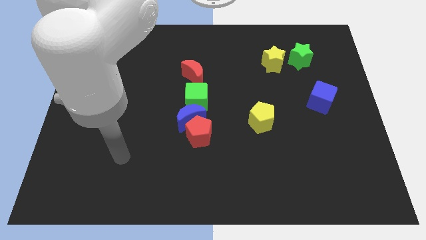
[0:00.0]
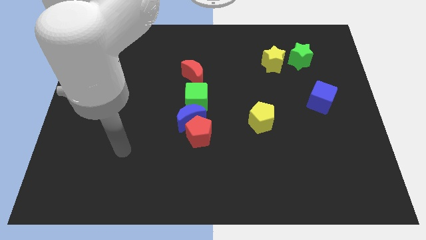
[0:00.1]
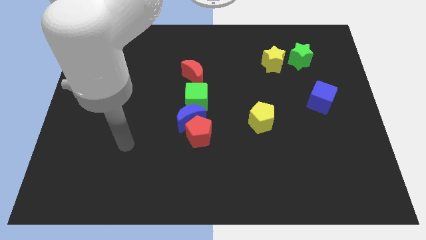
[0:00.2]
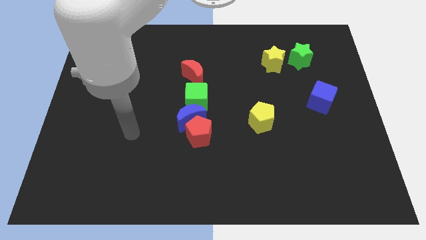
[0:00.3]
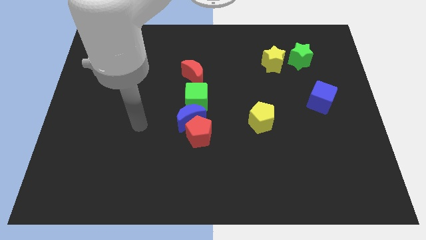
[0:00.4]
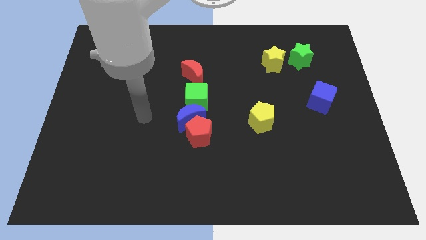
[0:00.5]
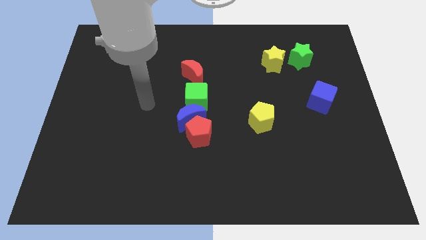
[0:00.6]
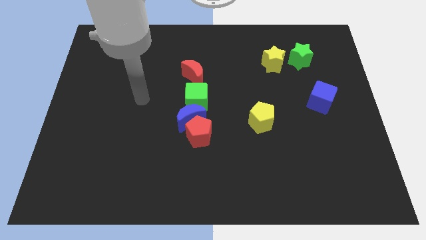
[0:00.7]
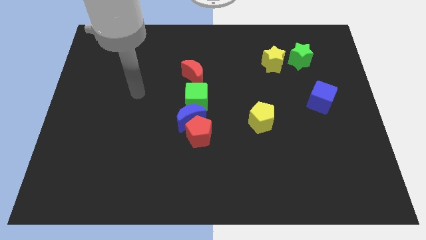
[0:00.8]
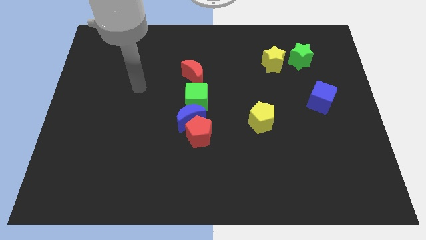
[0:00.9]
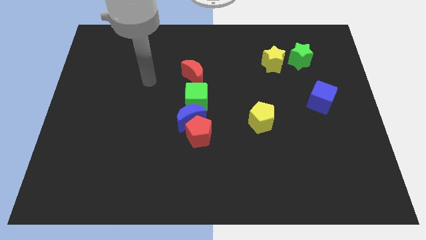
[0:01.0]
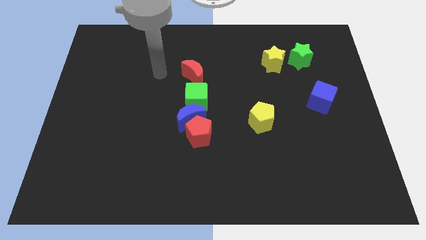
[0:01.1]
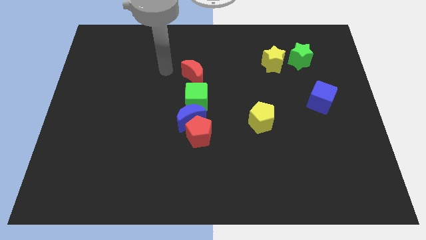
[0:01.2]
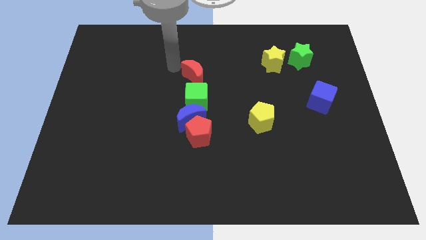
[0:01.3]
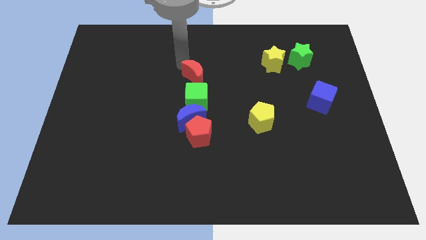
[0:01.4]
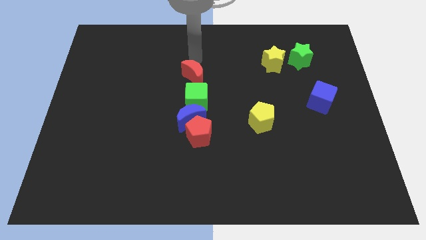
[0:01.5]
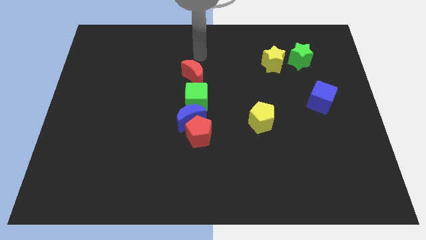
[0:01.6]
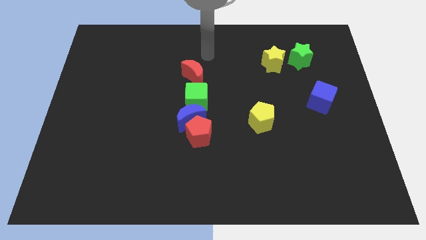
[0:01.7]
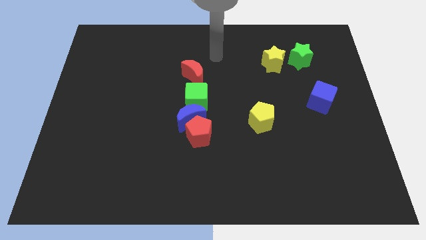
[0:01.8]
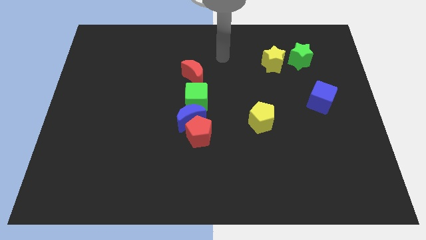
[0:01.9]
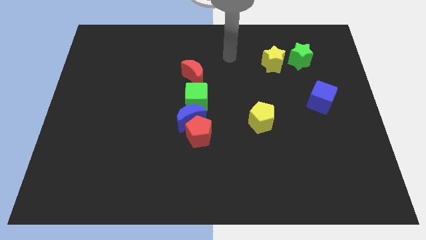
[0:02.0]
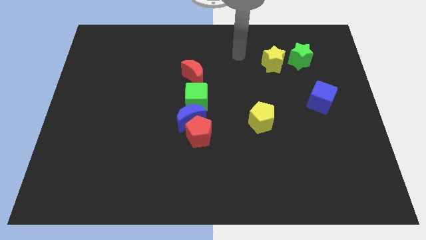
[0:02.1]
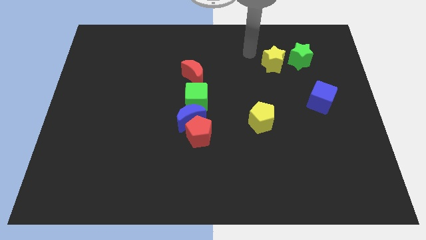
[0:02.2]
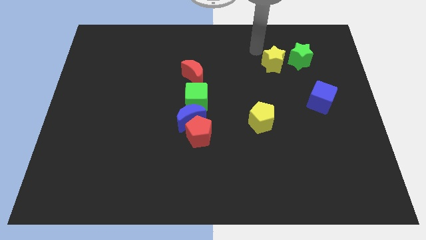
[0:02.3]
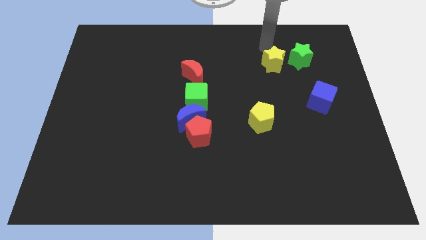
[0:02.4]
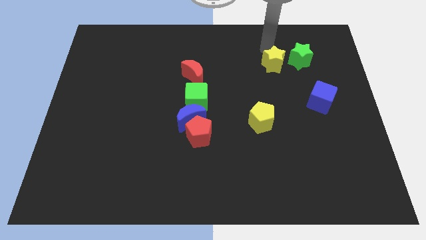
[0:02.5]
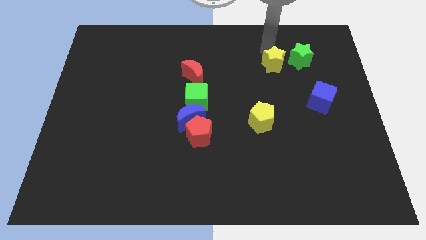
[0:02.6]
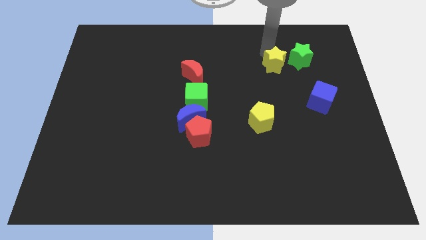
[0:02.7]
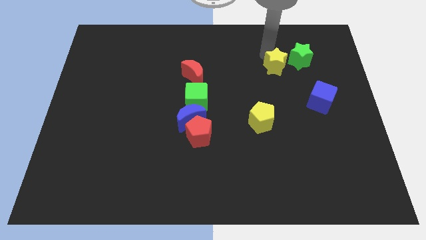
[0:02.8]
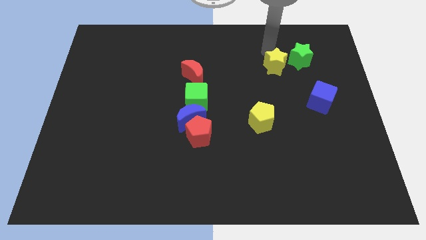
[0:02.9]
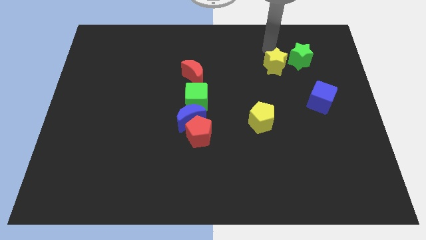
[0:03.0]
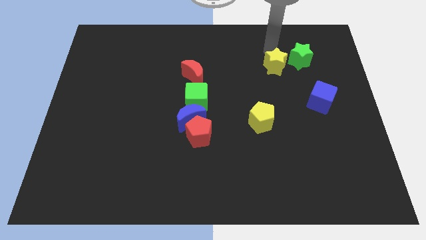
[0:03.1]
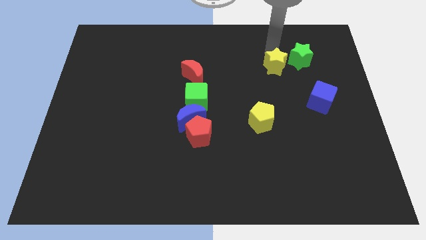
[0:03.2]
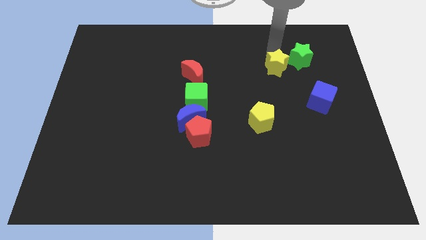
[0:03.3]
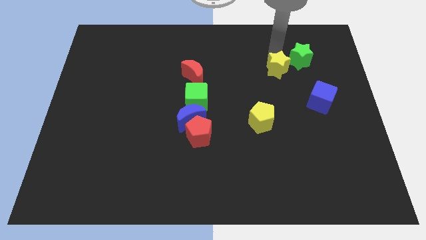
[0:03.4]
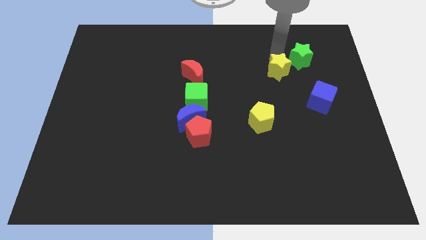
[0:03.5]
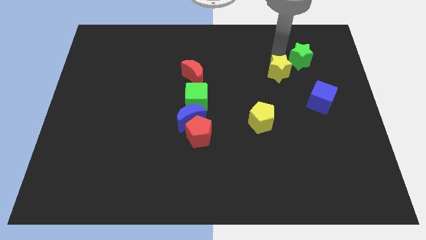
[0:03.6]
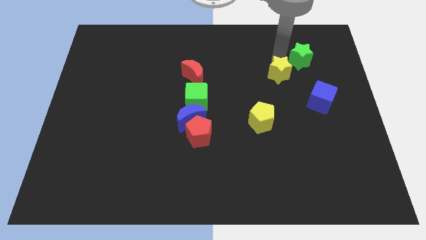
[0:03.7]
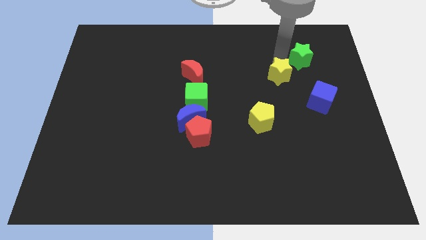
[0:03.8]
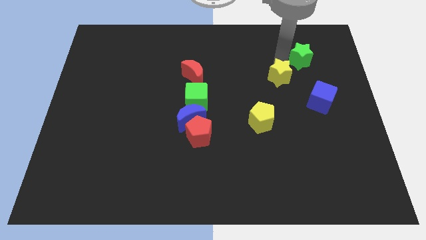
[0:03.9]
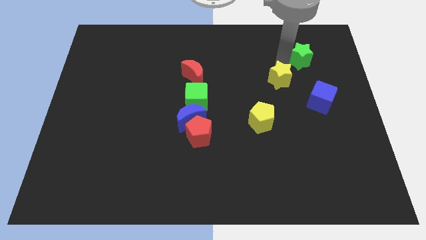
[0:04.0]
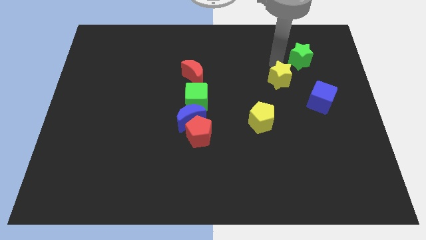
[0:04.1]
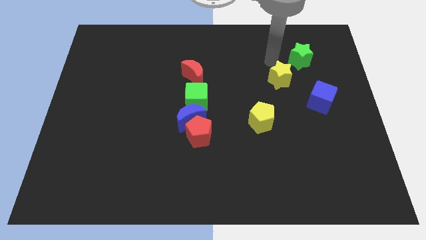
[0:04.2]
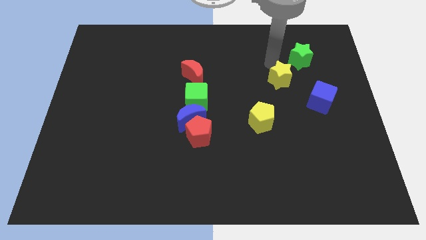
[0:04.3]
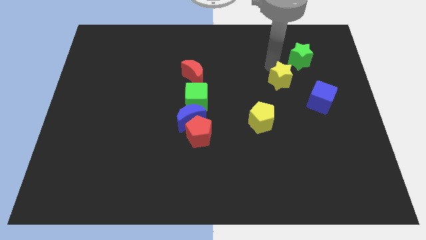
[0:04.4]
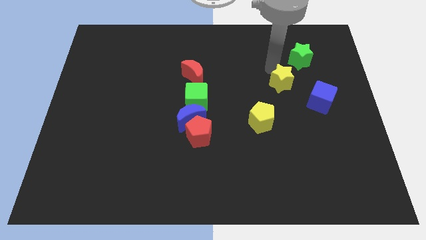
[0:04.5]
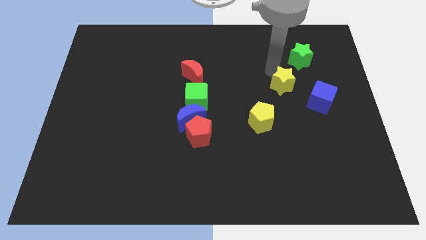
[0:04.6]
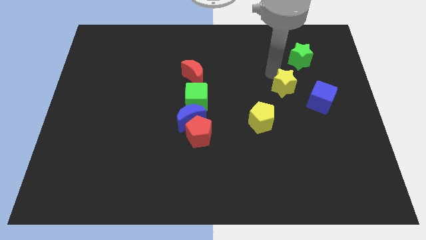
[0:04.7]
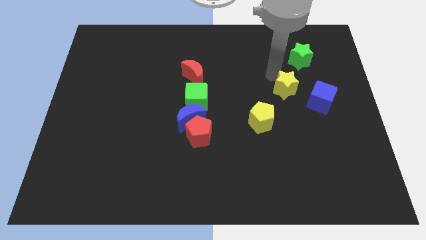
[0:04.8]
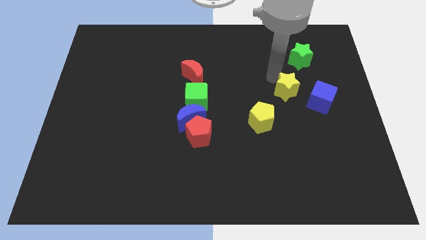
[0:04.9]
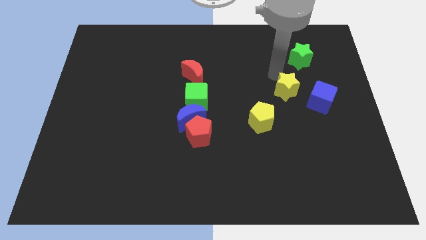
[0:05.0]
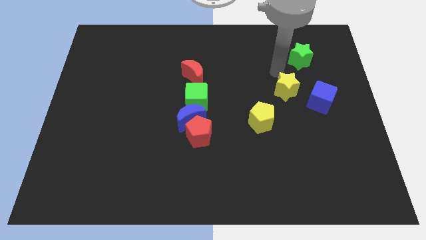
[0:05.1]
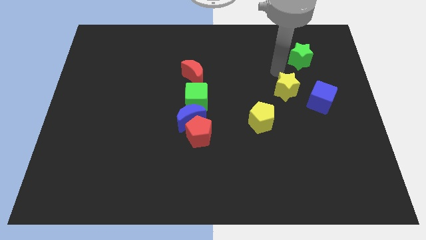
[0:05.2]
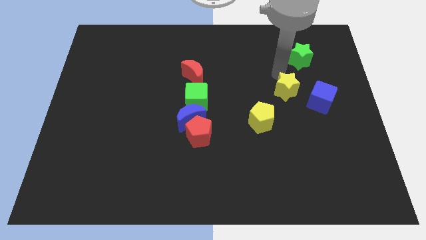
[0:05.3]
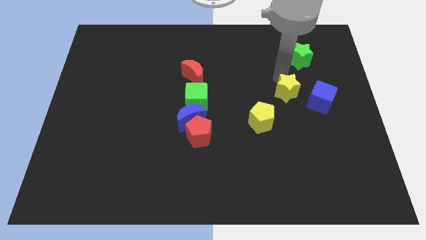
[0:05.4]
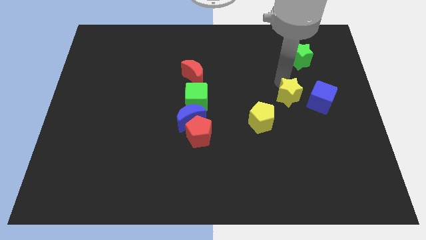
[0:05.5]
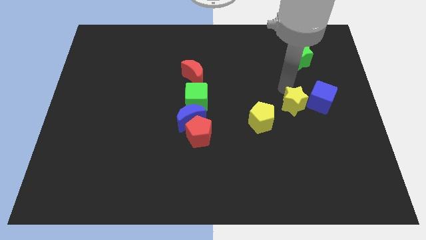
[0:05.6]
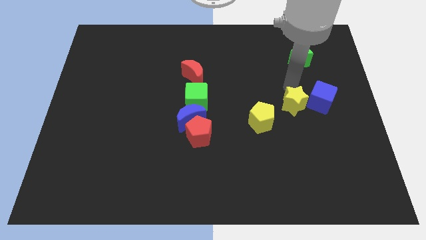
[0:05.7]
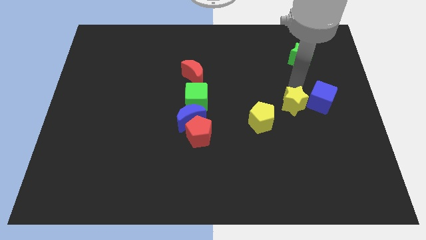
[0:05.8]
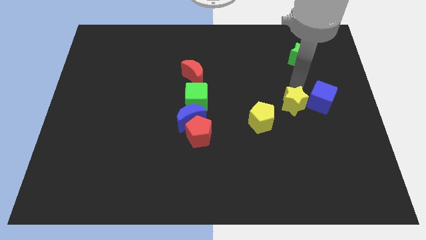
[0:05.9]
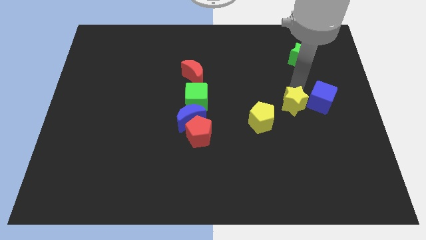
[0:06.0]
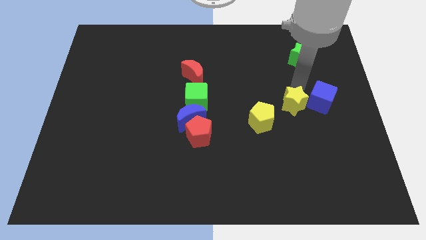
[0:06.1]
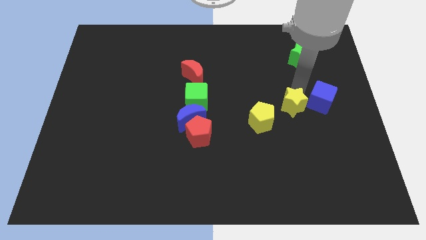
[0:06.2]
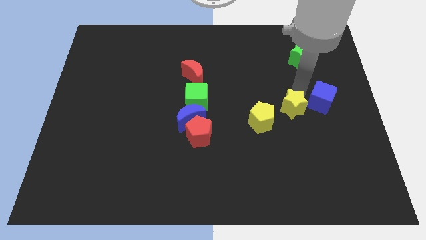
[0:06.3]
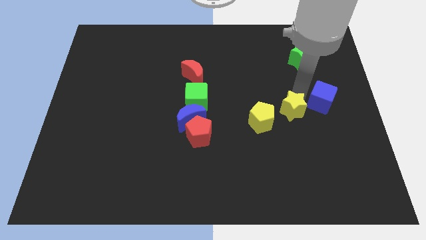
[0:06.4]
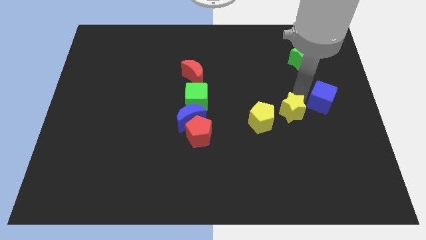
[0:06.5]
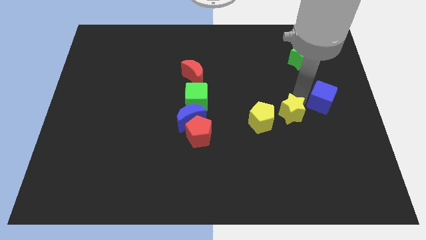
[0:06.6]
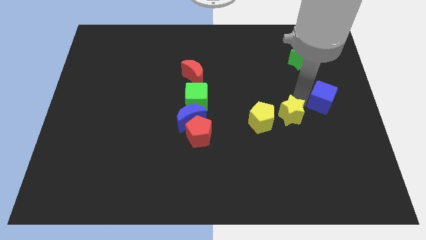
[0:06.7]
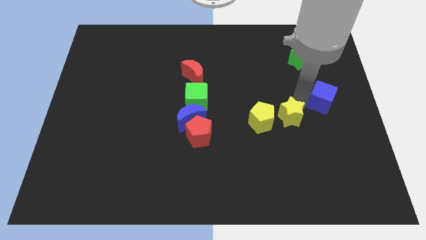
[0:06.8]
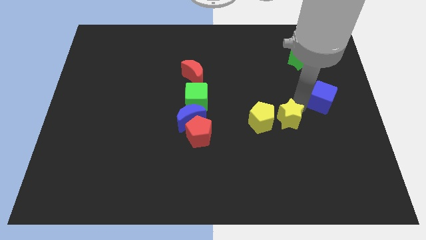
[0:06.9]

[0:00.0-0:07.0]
push the yellow star diagonally down and to the right of the yellow pentagon

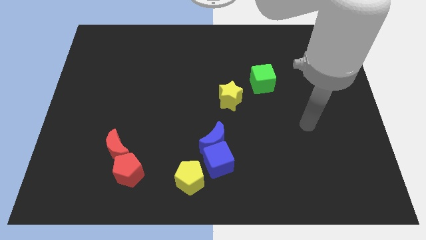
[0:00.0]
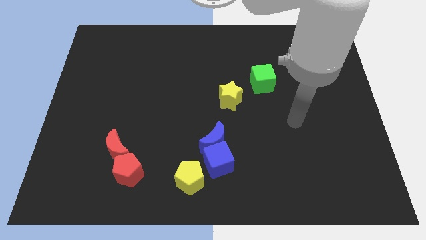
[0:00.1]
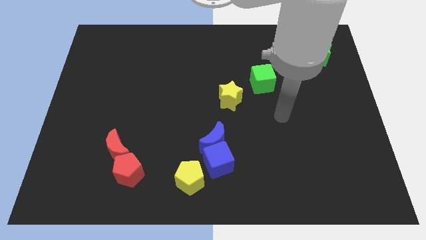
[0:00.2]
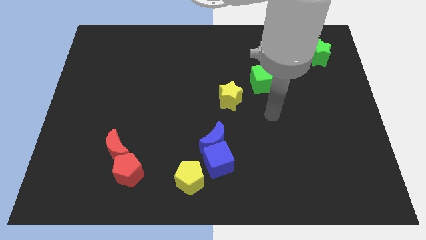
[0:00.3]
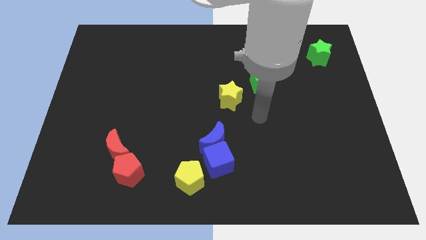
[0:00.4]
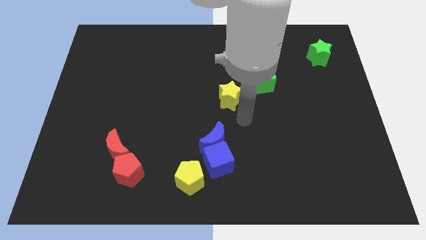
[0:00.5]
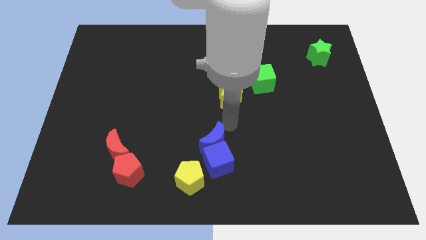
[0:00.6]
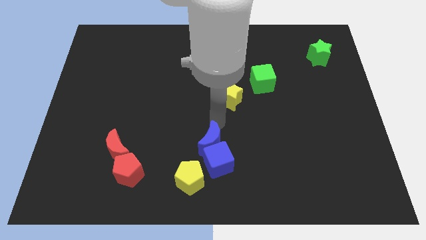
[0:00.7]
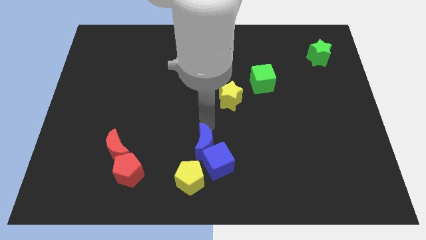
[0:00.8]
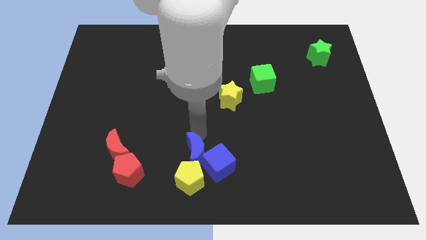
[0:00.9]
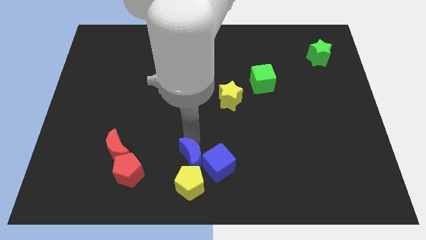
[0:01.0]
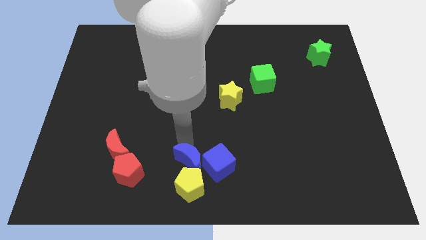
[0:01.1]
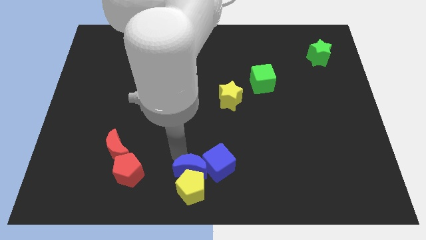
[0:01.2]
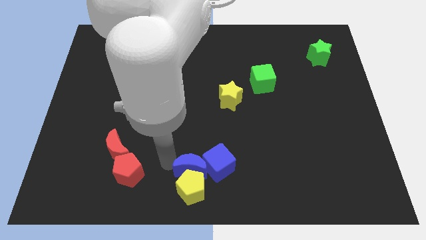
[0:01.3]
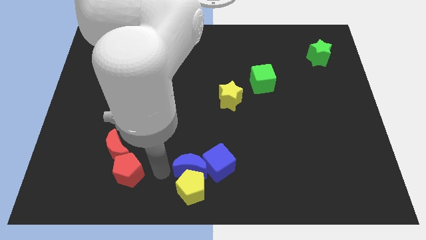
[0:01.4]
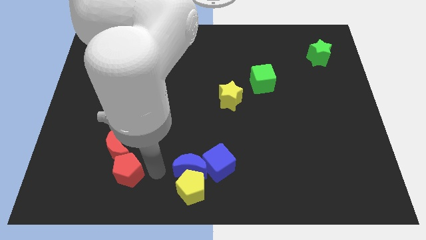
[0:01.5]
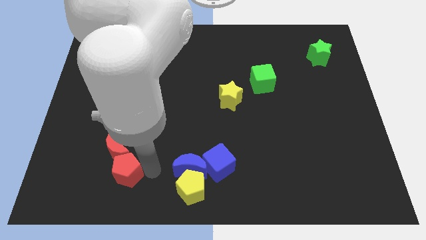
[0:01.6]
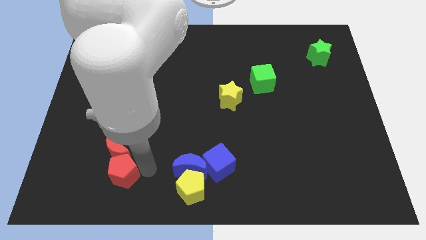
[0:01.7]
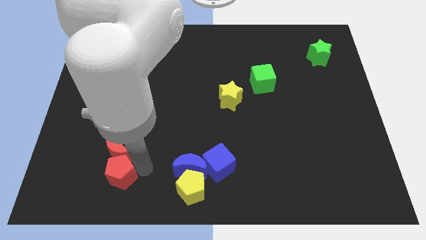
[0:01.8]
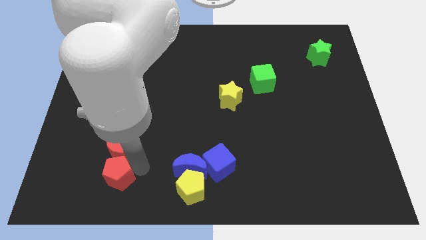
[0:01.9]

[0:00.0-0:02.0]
slide the red pentagon to the bottom left of the red moon
